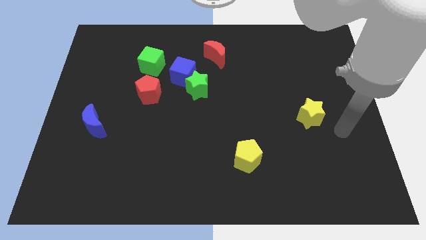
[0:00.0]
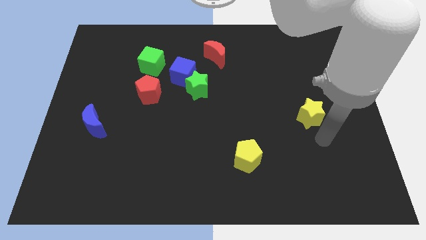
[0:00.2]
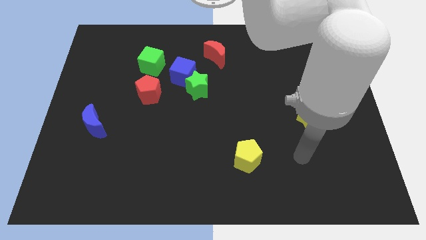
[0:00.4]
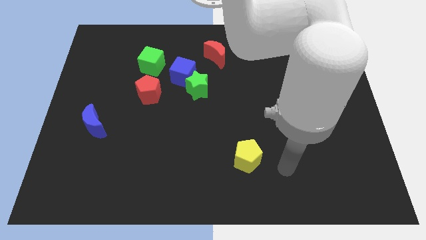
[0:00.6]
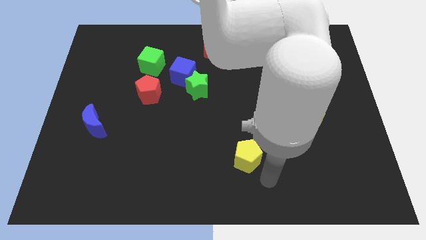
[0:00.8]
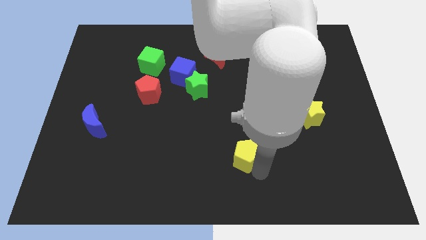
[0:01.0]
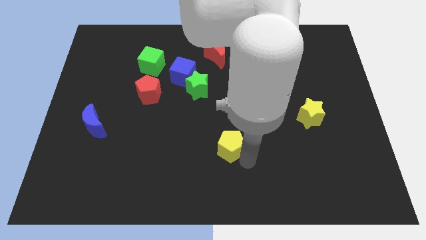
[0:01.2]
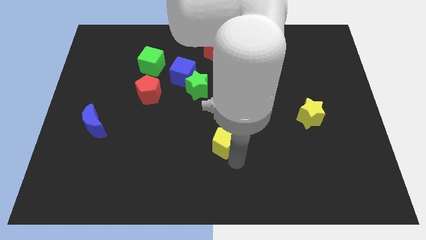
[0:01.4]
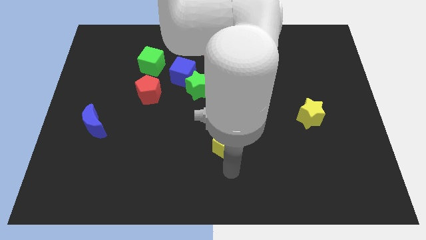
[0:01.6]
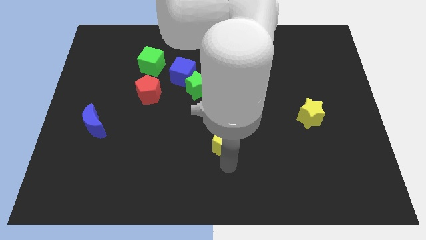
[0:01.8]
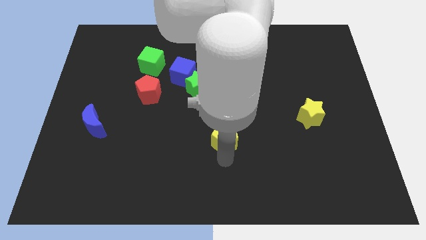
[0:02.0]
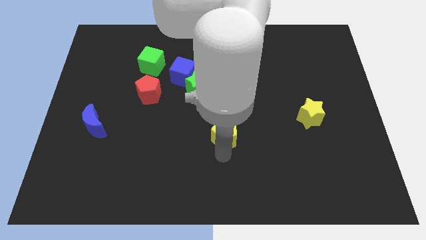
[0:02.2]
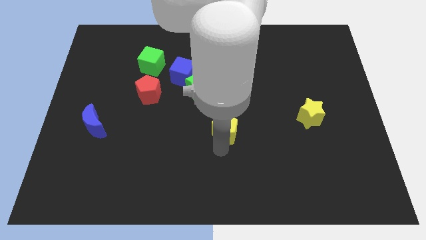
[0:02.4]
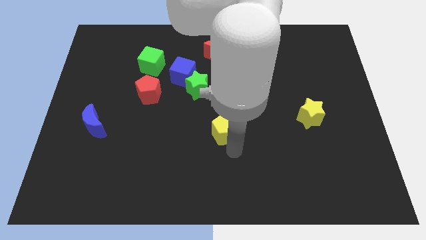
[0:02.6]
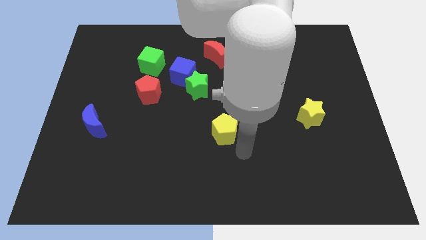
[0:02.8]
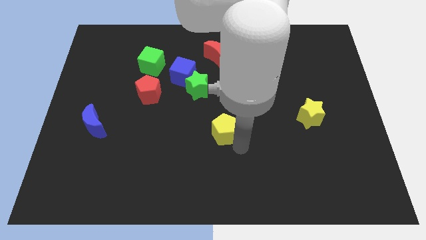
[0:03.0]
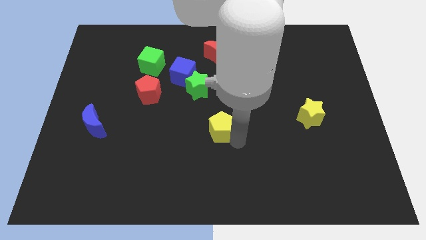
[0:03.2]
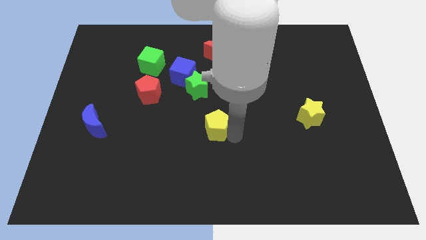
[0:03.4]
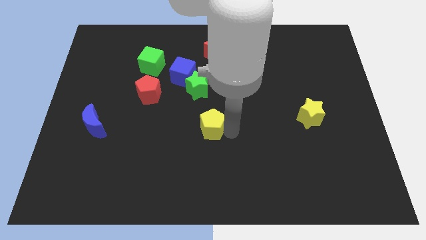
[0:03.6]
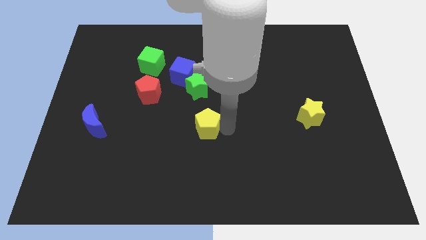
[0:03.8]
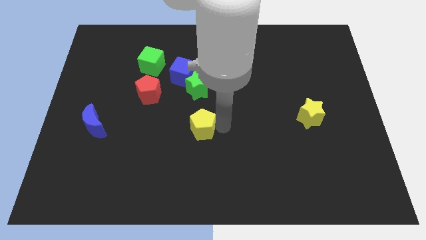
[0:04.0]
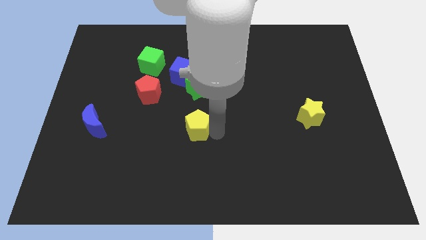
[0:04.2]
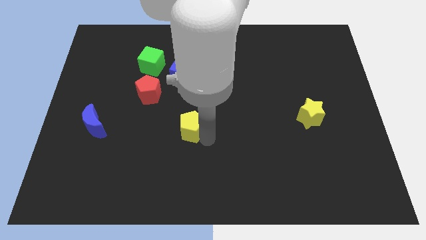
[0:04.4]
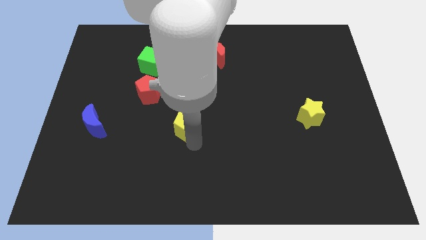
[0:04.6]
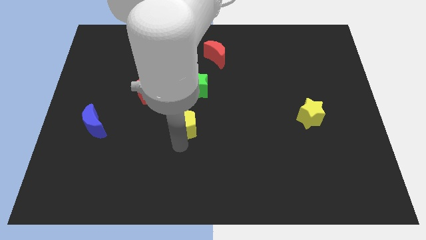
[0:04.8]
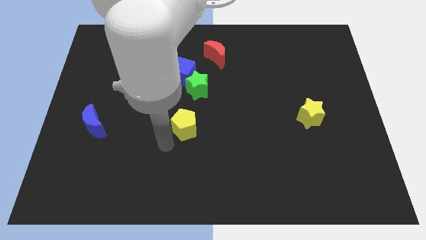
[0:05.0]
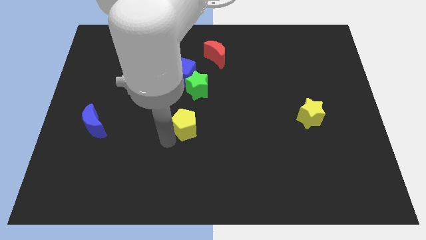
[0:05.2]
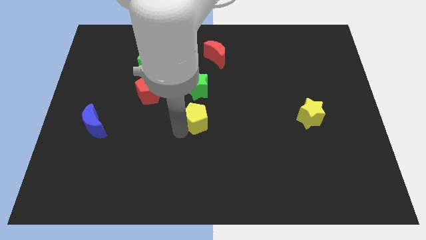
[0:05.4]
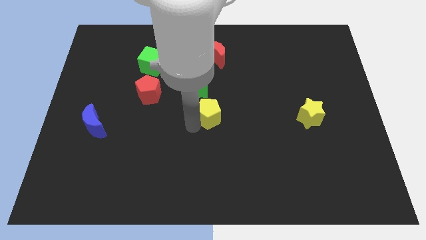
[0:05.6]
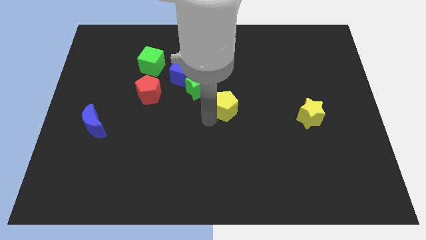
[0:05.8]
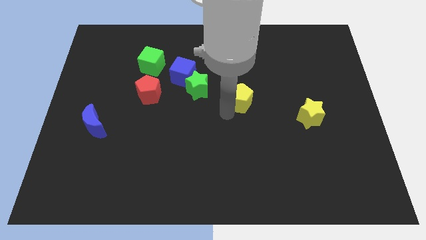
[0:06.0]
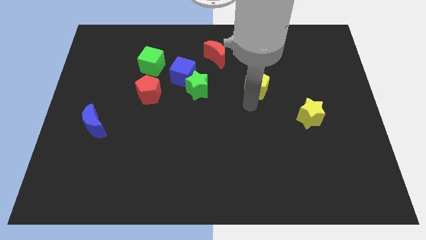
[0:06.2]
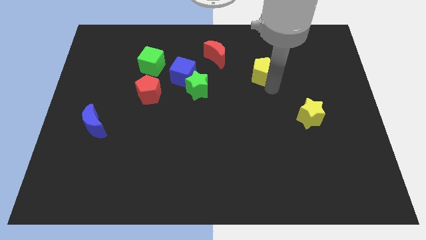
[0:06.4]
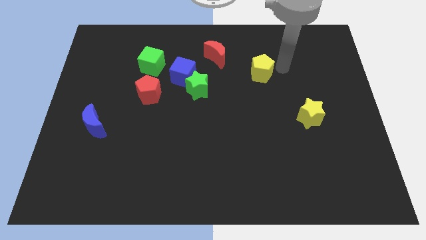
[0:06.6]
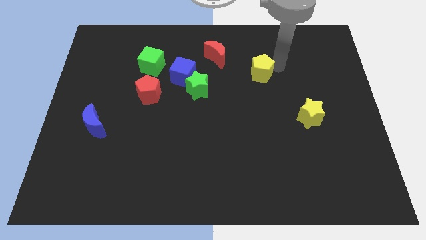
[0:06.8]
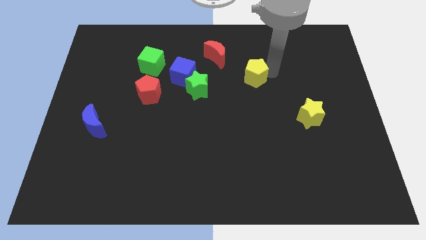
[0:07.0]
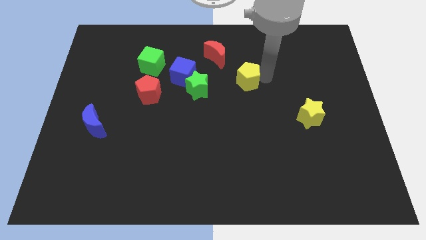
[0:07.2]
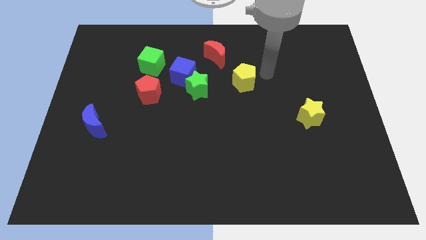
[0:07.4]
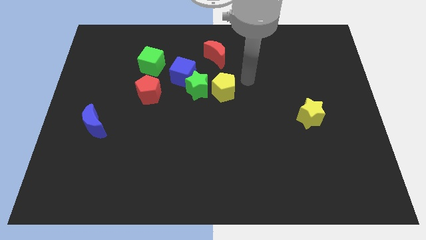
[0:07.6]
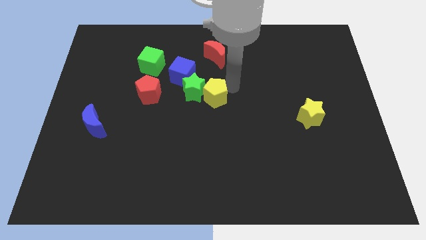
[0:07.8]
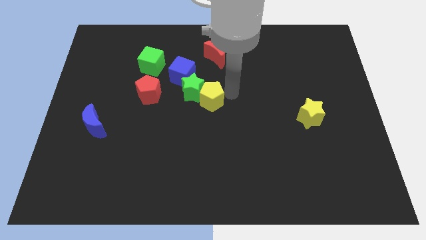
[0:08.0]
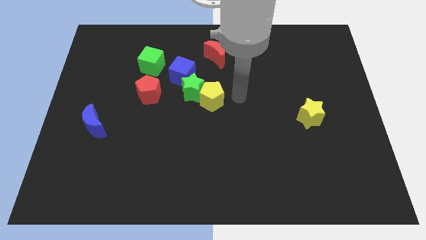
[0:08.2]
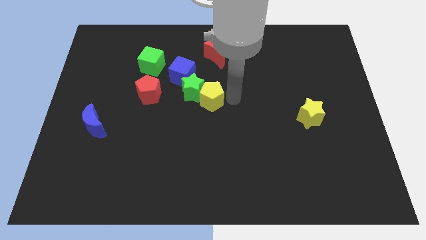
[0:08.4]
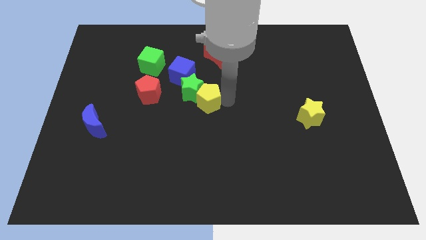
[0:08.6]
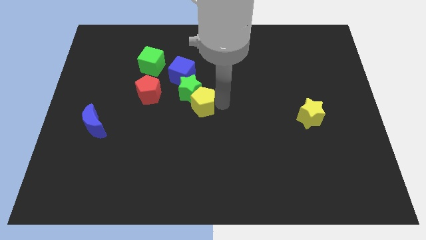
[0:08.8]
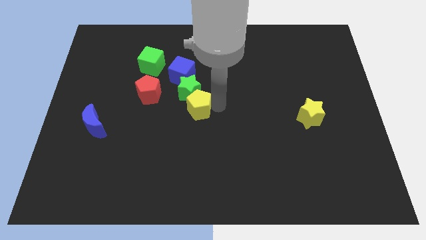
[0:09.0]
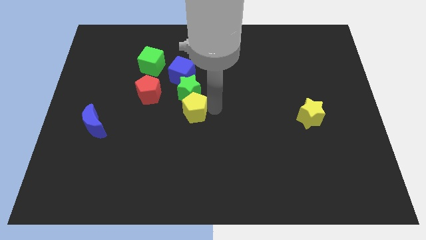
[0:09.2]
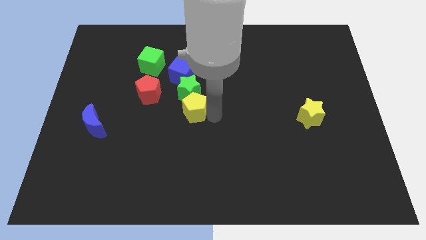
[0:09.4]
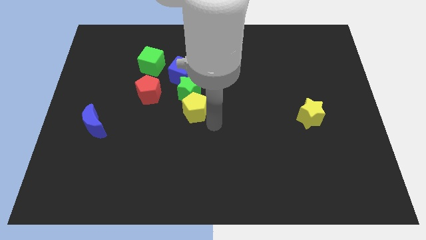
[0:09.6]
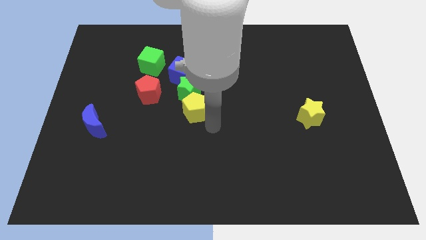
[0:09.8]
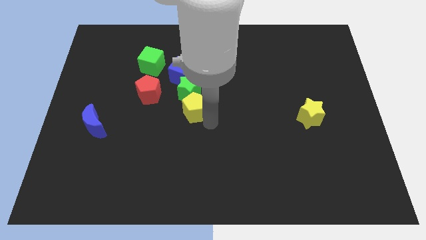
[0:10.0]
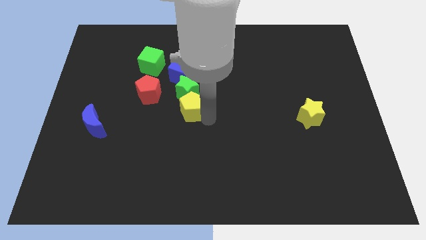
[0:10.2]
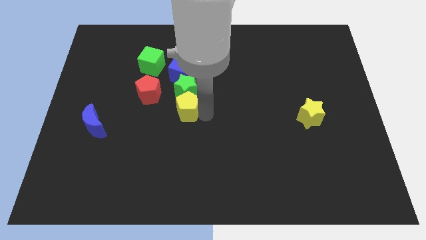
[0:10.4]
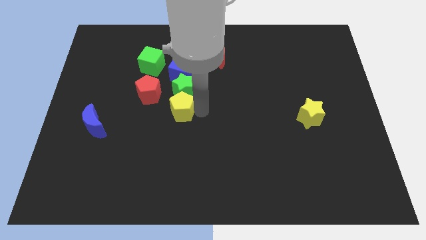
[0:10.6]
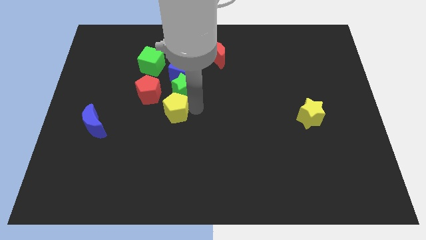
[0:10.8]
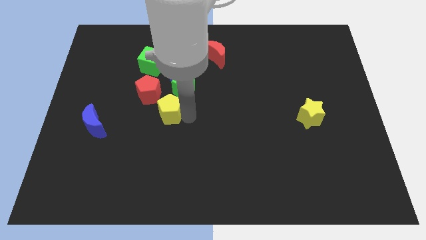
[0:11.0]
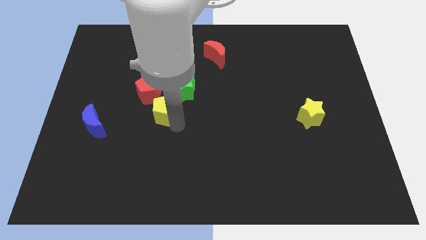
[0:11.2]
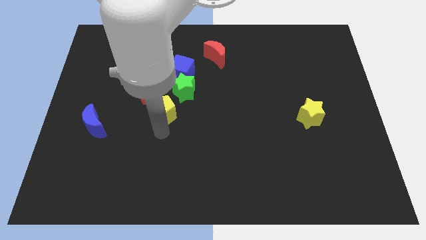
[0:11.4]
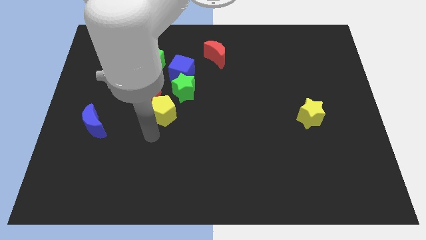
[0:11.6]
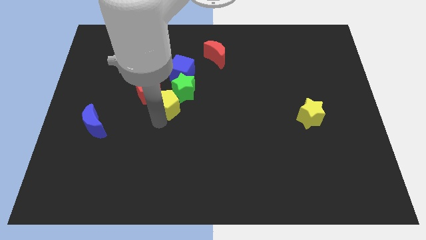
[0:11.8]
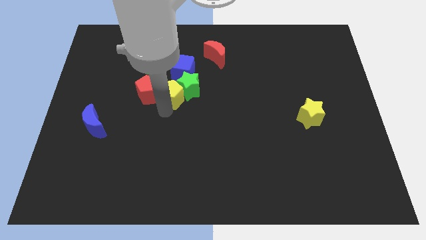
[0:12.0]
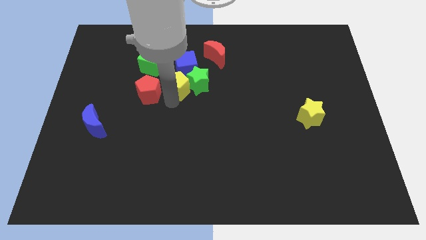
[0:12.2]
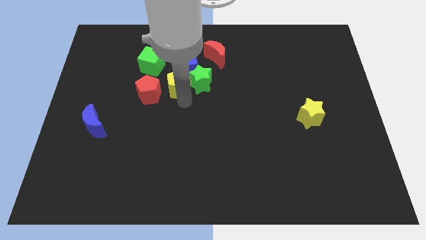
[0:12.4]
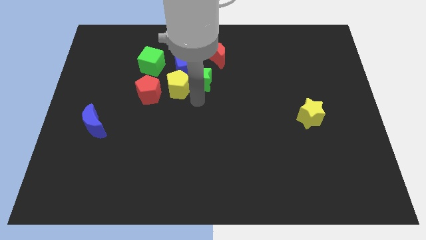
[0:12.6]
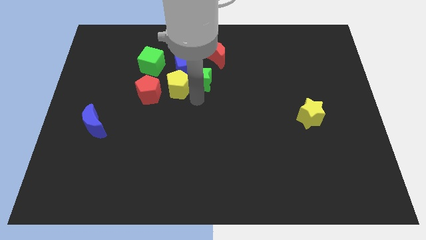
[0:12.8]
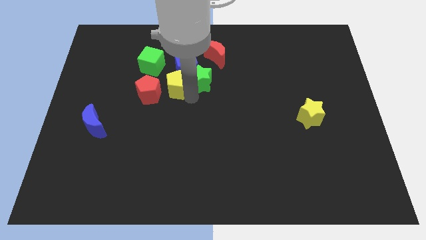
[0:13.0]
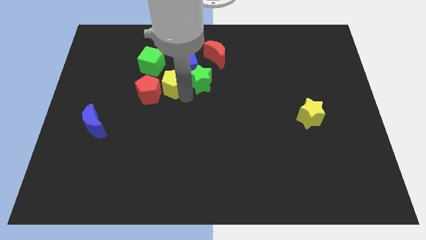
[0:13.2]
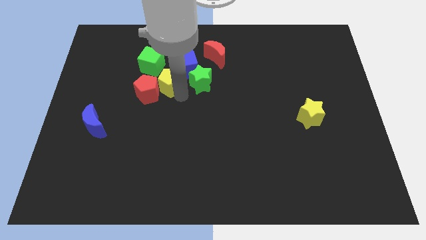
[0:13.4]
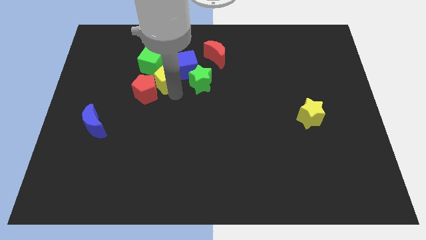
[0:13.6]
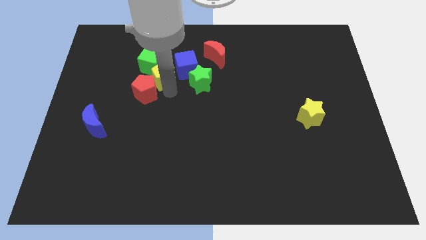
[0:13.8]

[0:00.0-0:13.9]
put the yellow pentagon next to the green cube

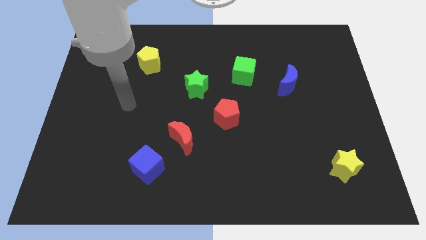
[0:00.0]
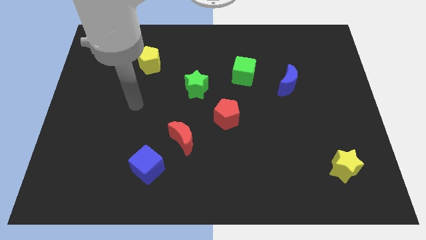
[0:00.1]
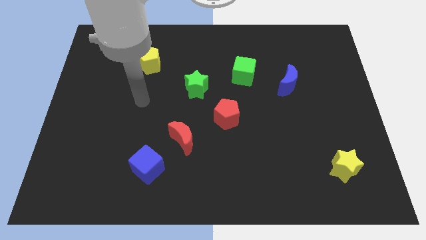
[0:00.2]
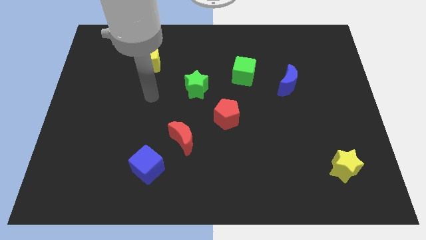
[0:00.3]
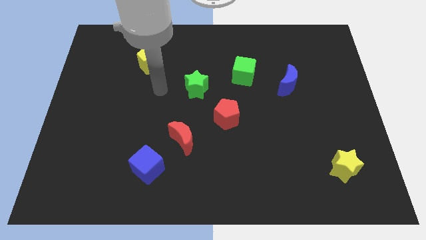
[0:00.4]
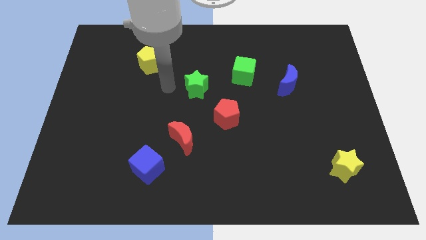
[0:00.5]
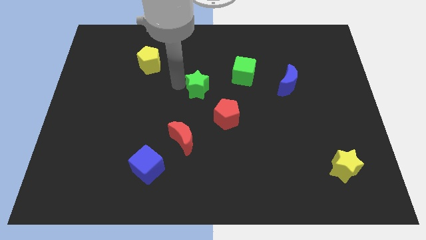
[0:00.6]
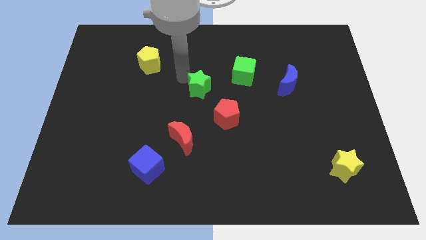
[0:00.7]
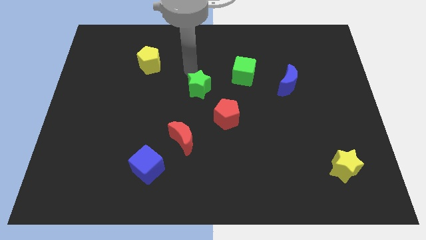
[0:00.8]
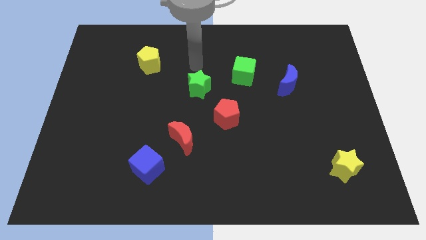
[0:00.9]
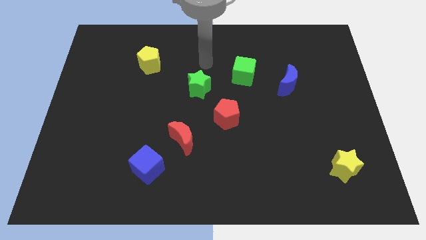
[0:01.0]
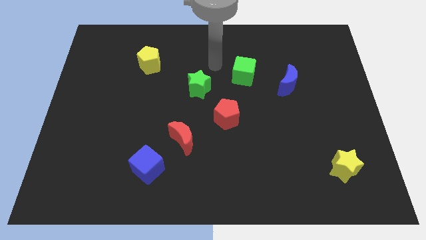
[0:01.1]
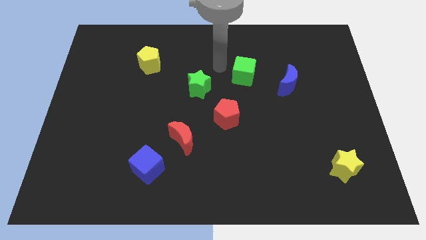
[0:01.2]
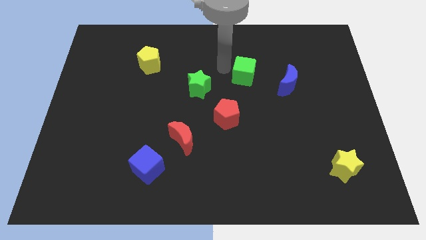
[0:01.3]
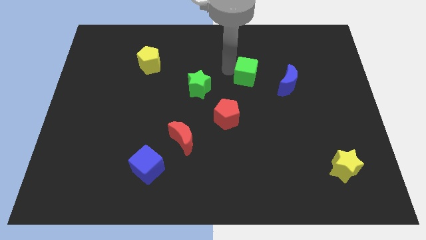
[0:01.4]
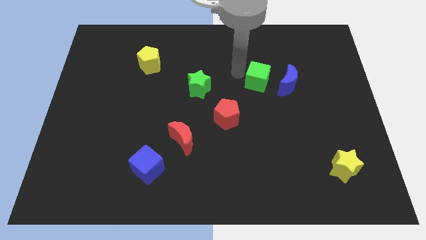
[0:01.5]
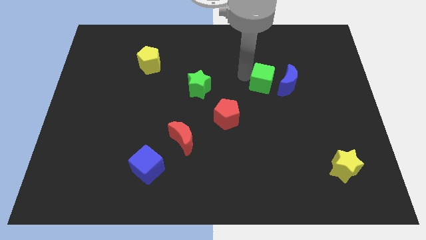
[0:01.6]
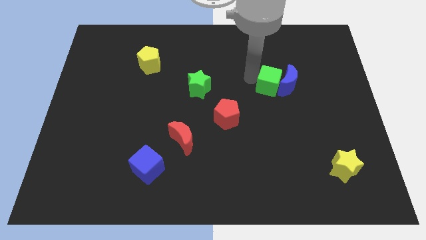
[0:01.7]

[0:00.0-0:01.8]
move the green cube to the blue moon
